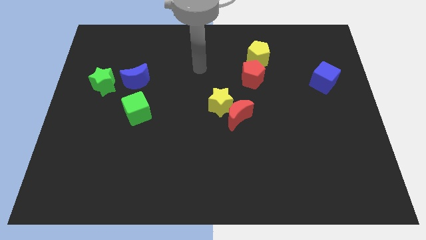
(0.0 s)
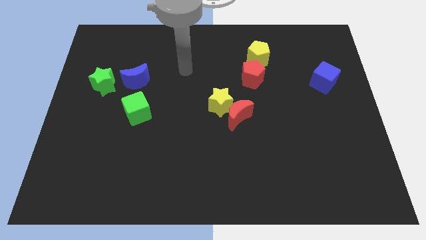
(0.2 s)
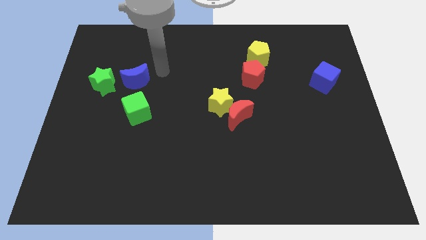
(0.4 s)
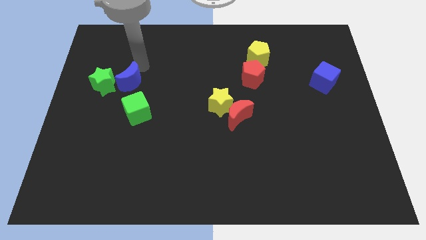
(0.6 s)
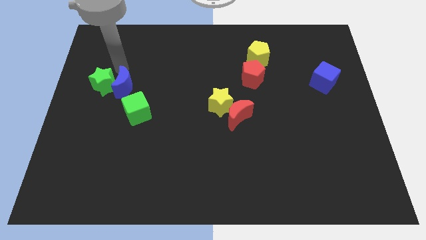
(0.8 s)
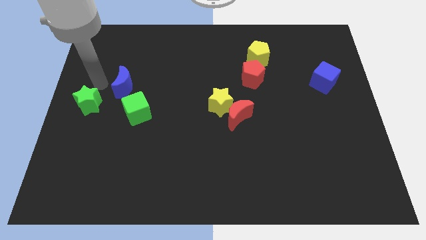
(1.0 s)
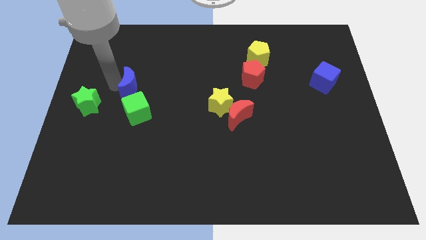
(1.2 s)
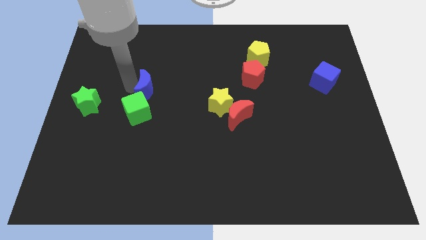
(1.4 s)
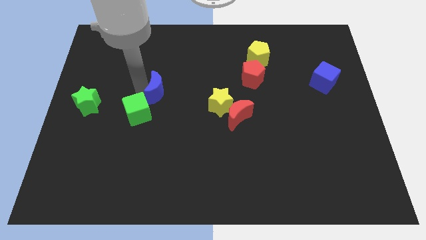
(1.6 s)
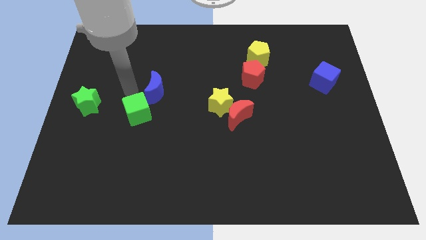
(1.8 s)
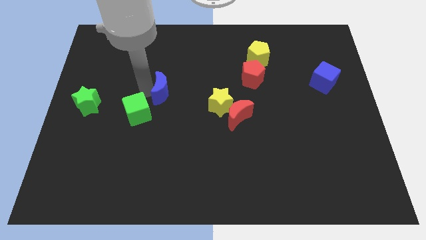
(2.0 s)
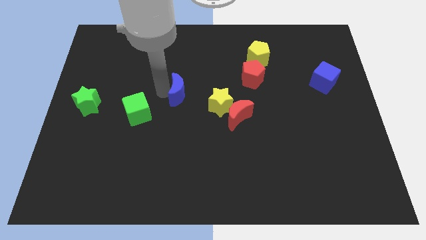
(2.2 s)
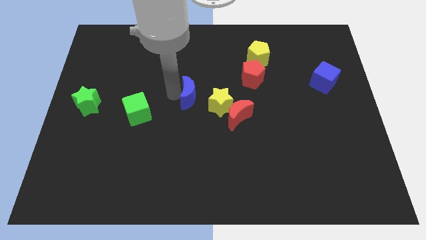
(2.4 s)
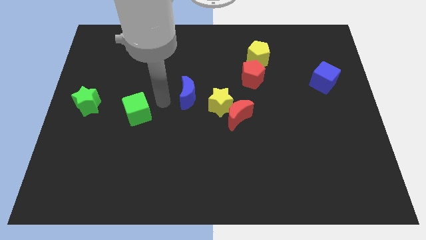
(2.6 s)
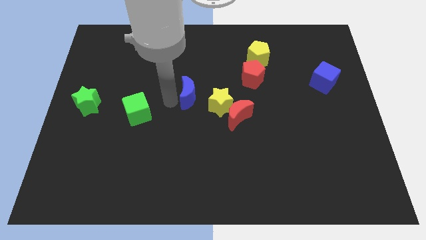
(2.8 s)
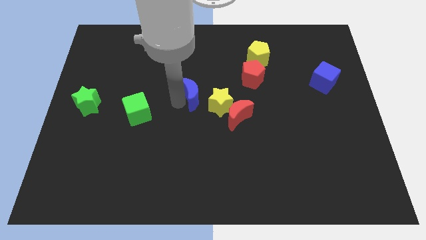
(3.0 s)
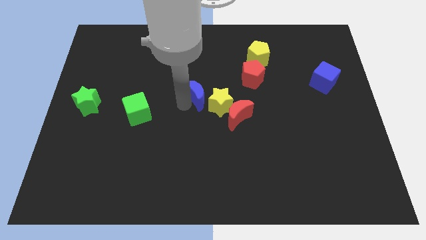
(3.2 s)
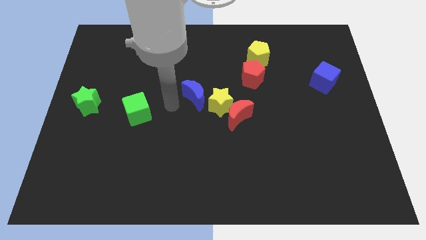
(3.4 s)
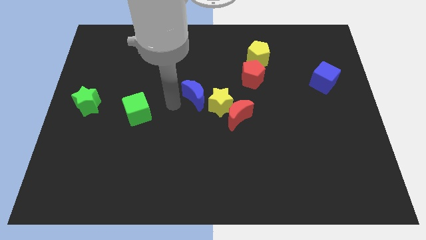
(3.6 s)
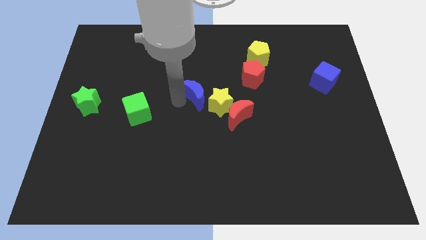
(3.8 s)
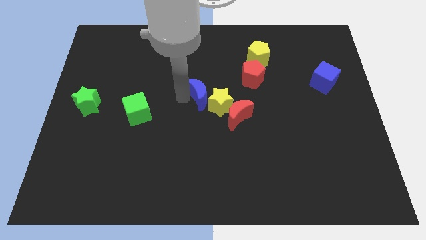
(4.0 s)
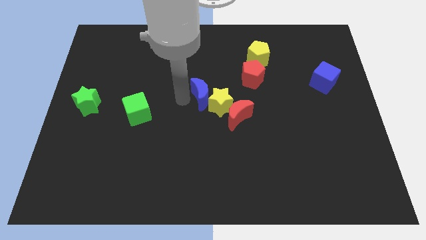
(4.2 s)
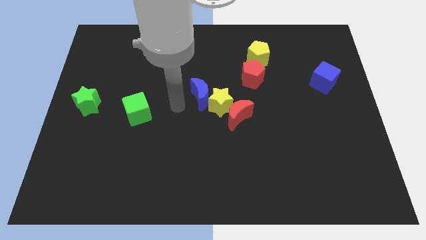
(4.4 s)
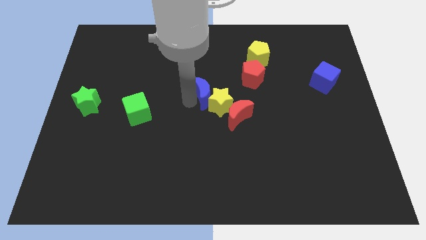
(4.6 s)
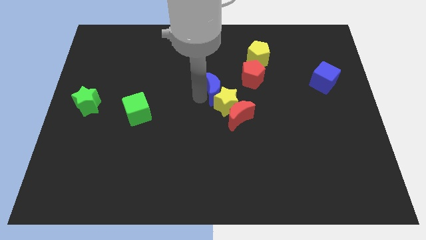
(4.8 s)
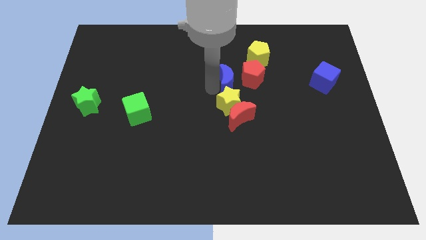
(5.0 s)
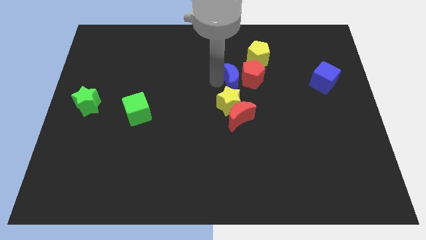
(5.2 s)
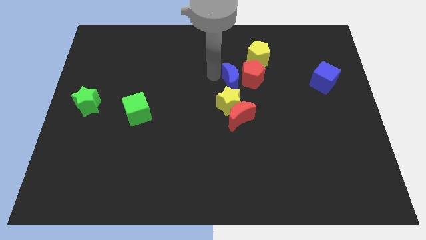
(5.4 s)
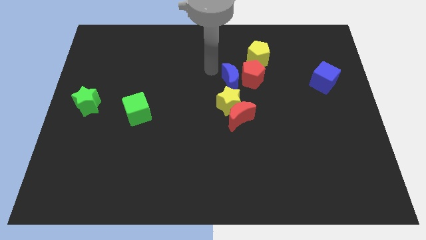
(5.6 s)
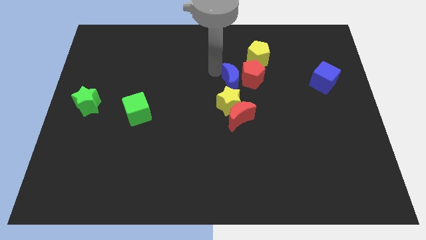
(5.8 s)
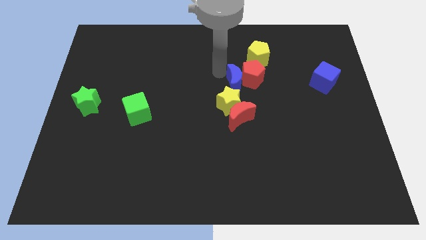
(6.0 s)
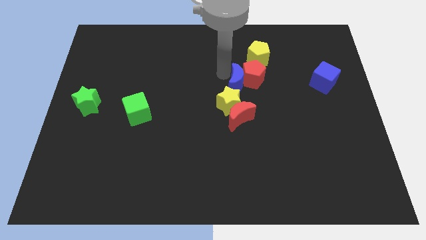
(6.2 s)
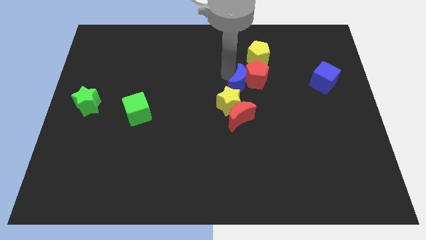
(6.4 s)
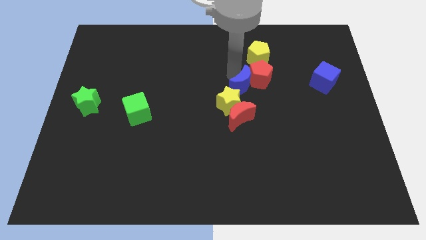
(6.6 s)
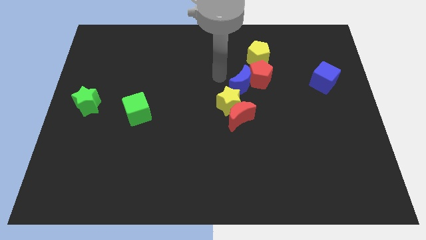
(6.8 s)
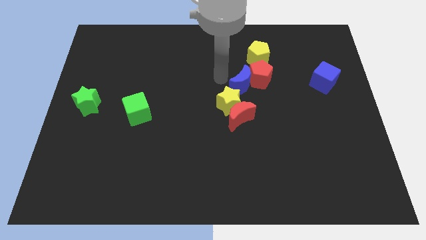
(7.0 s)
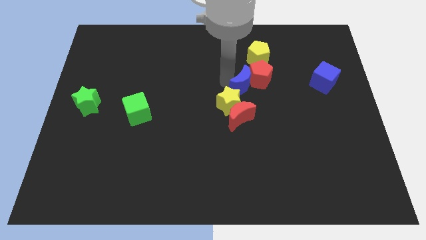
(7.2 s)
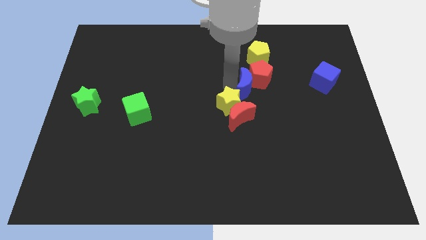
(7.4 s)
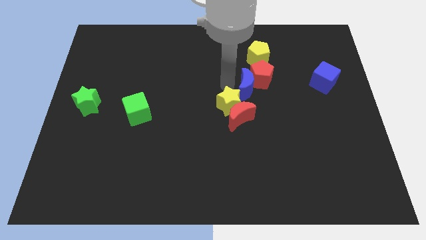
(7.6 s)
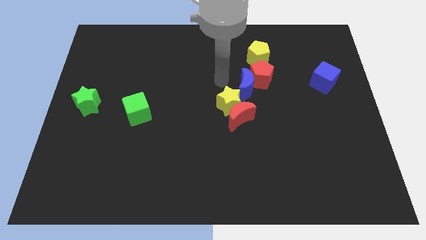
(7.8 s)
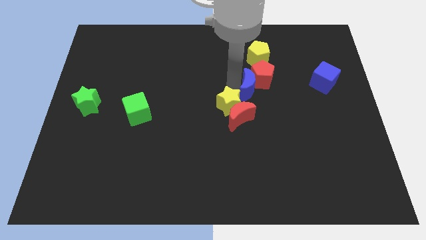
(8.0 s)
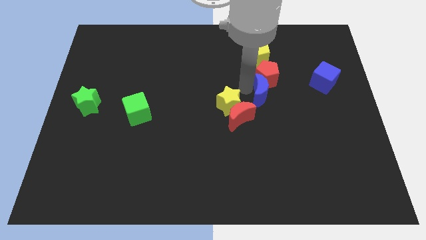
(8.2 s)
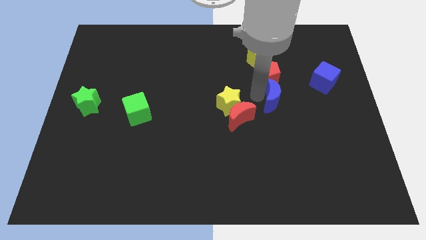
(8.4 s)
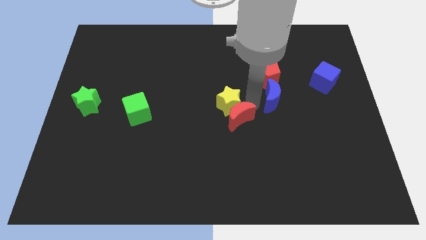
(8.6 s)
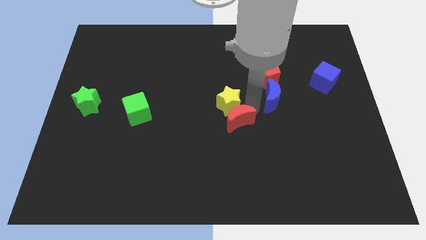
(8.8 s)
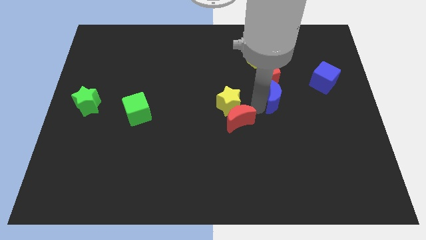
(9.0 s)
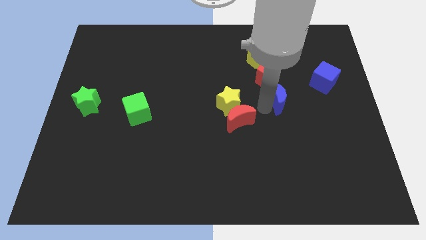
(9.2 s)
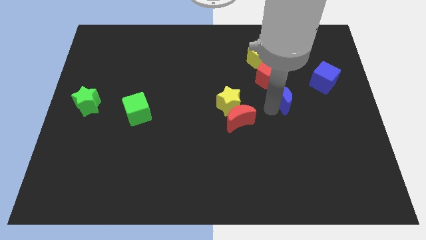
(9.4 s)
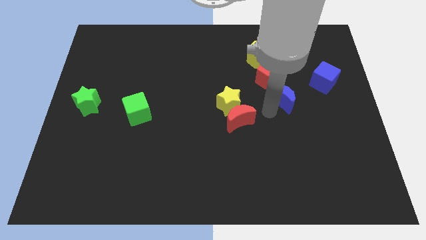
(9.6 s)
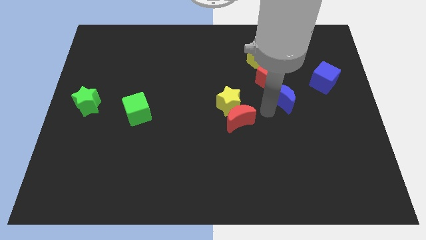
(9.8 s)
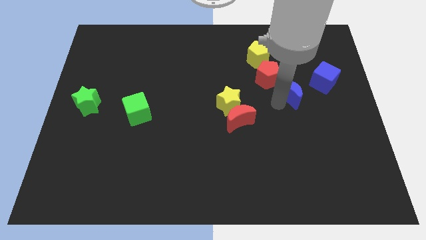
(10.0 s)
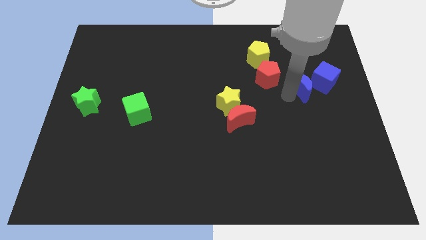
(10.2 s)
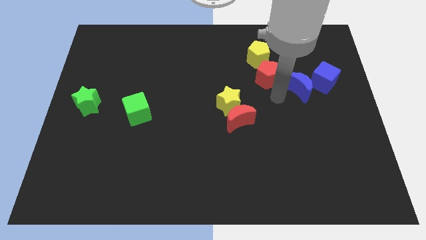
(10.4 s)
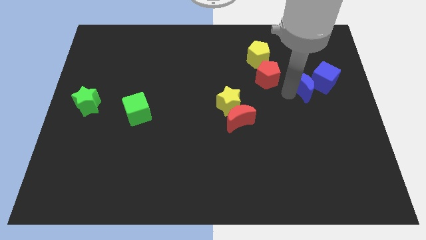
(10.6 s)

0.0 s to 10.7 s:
put the blue moon to the blue cube

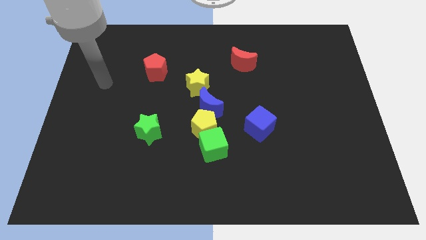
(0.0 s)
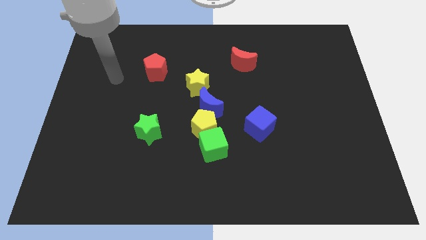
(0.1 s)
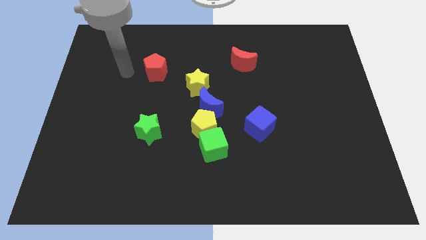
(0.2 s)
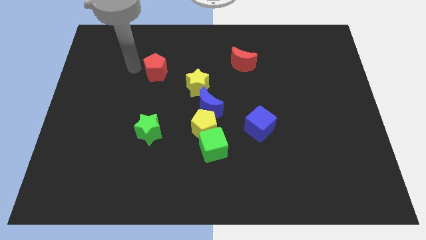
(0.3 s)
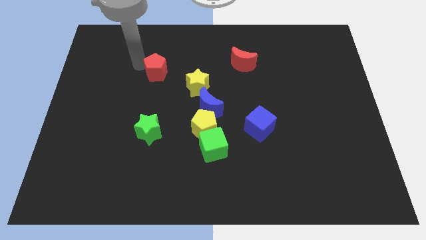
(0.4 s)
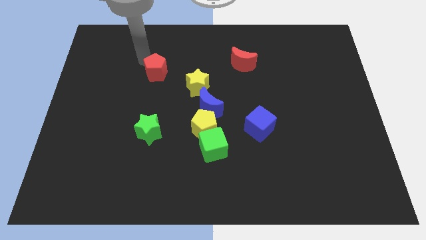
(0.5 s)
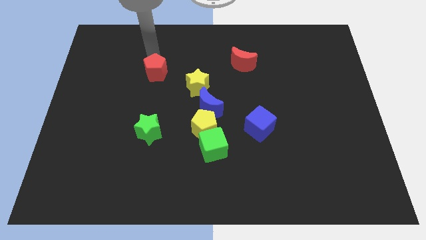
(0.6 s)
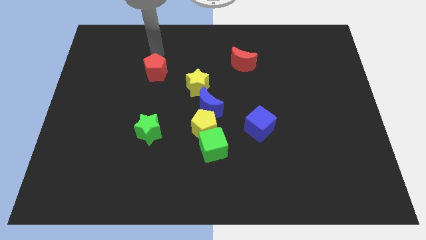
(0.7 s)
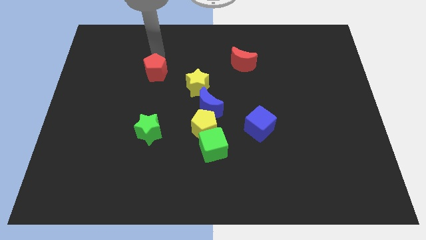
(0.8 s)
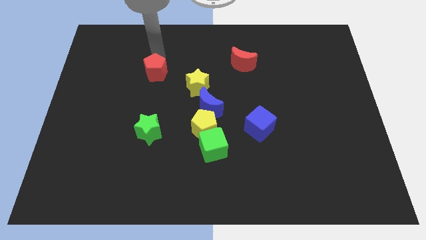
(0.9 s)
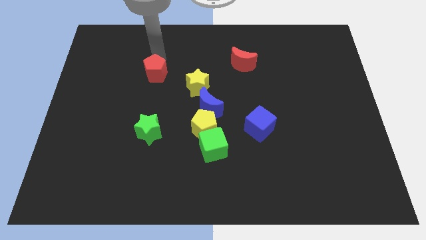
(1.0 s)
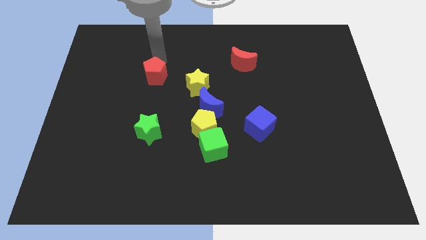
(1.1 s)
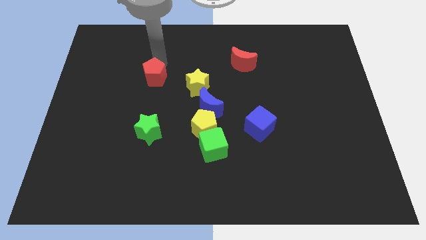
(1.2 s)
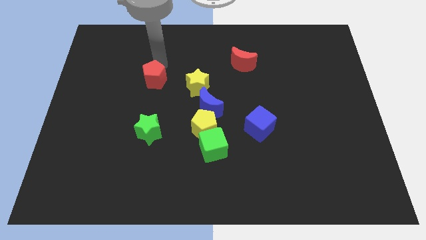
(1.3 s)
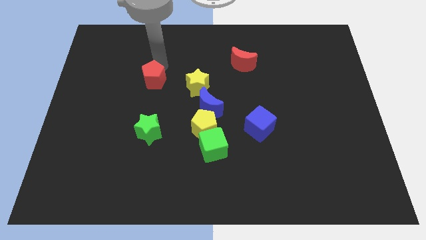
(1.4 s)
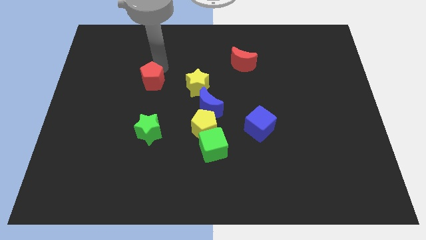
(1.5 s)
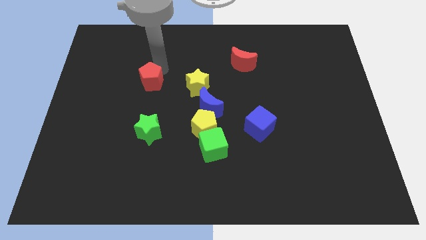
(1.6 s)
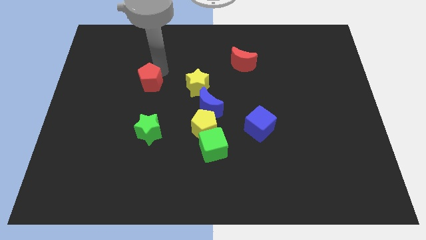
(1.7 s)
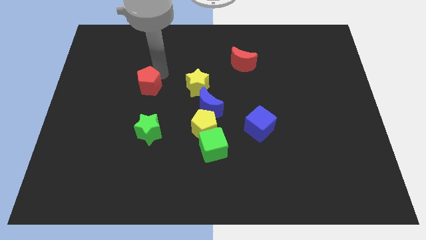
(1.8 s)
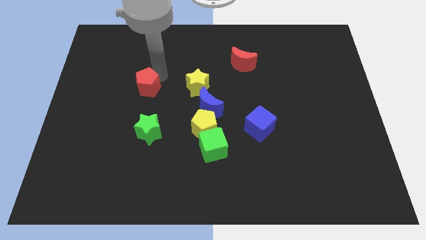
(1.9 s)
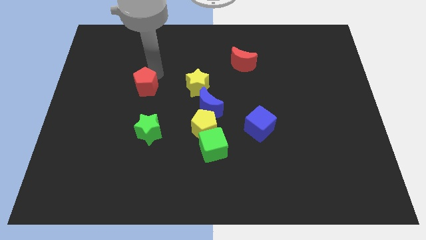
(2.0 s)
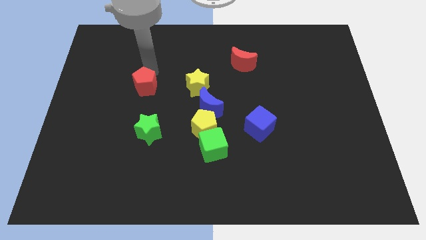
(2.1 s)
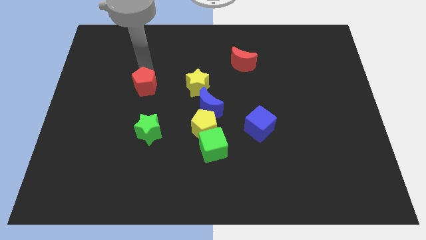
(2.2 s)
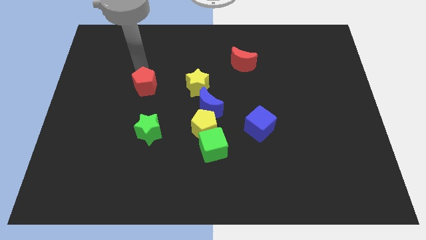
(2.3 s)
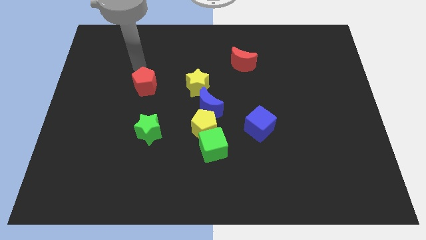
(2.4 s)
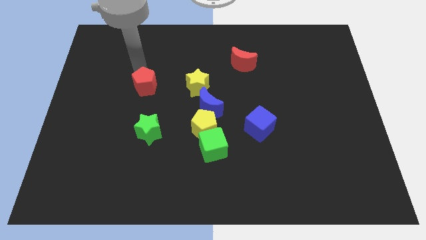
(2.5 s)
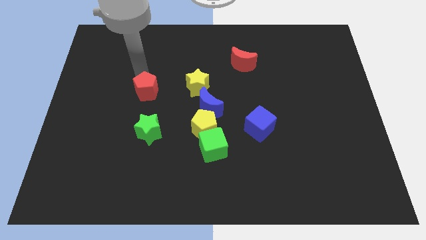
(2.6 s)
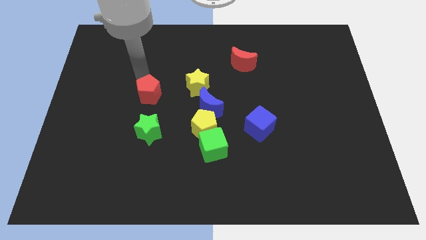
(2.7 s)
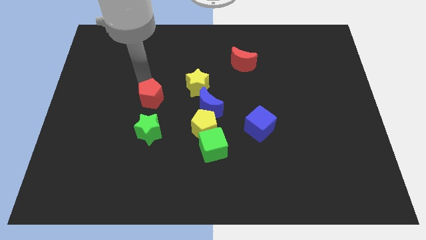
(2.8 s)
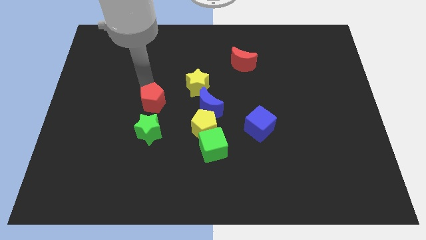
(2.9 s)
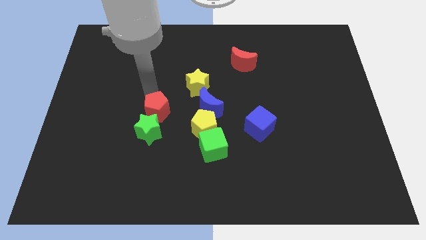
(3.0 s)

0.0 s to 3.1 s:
slide the red pentagon next to the green star
